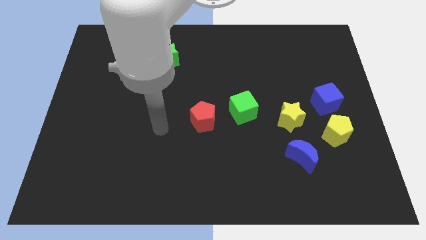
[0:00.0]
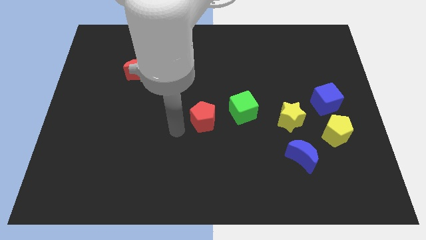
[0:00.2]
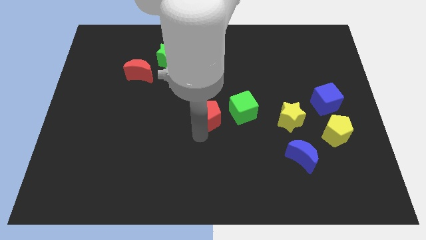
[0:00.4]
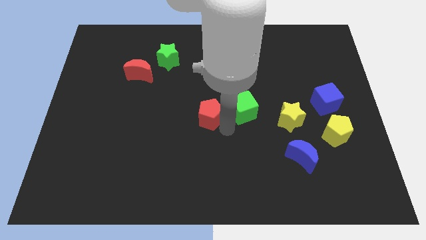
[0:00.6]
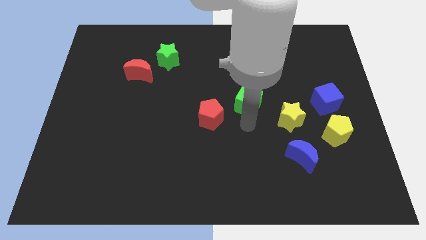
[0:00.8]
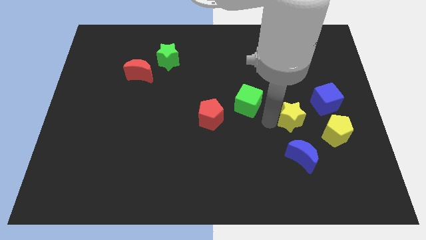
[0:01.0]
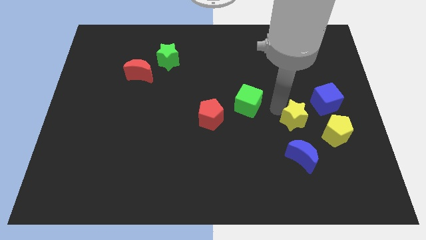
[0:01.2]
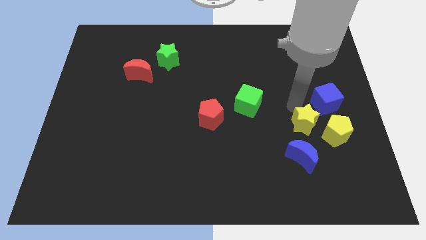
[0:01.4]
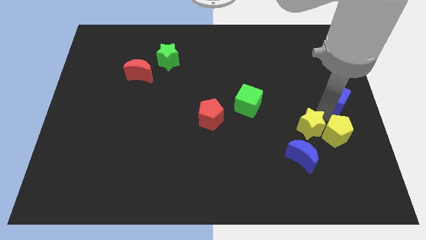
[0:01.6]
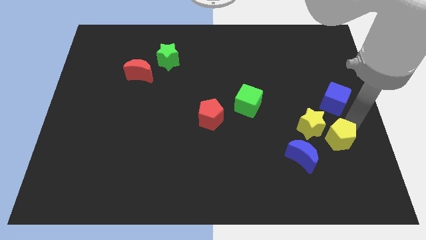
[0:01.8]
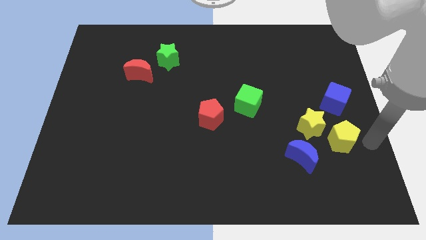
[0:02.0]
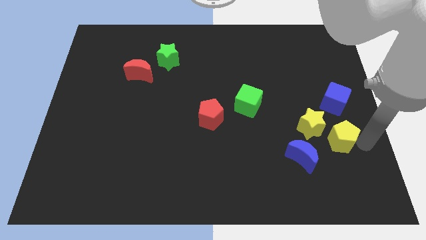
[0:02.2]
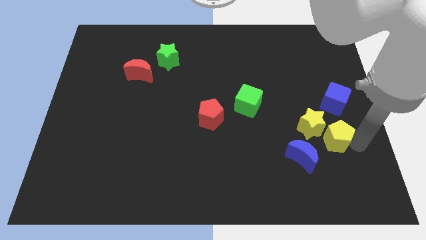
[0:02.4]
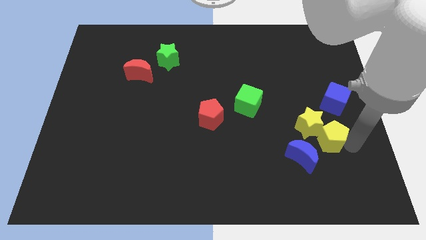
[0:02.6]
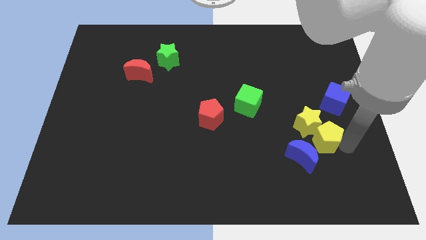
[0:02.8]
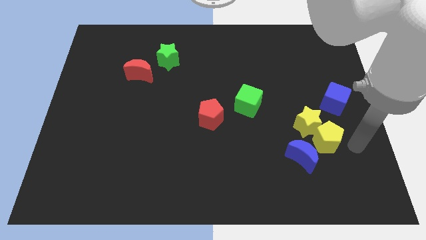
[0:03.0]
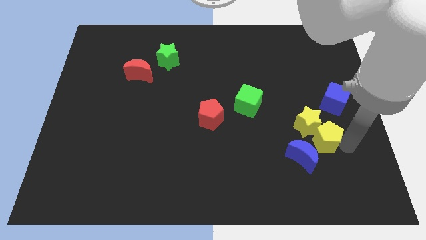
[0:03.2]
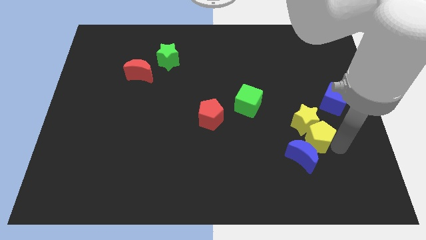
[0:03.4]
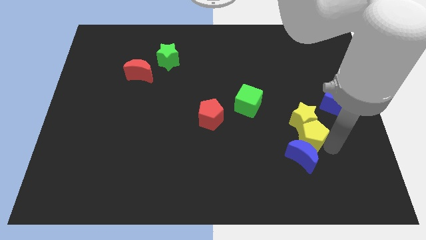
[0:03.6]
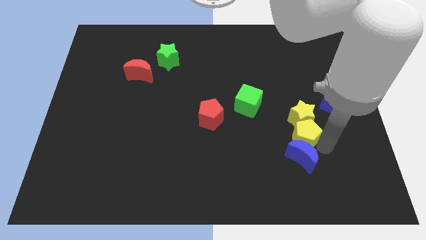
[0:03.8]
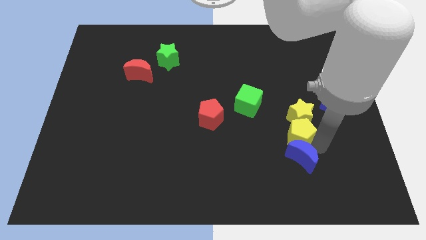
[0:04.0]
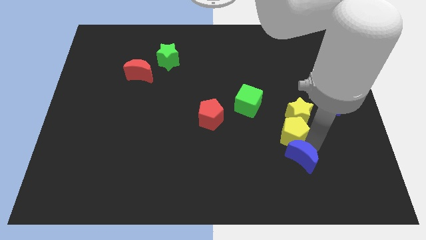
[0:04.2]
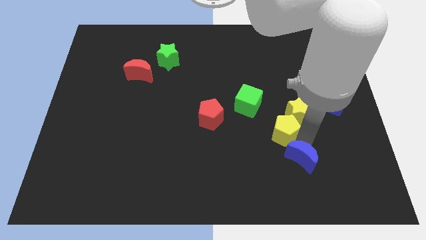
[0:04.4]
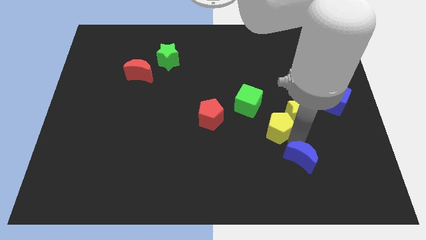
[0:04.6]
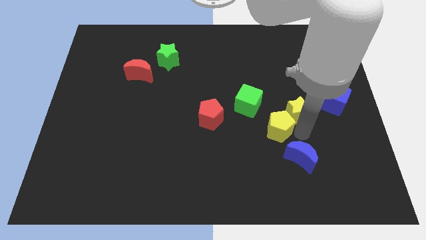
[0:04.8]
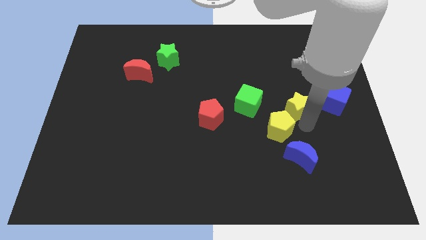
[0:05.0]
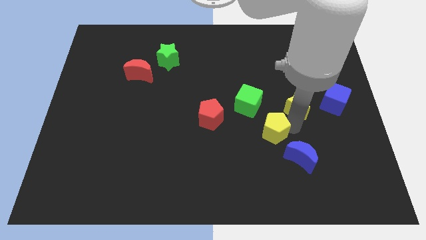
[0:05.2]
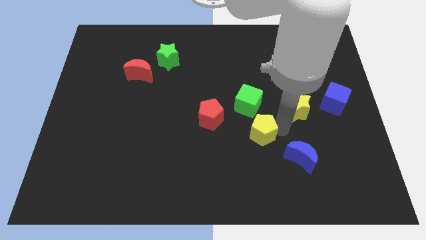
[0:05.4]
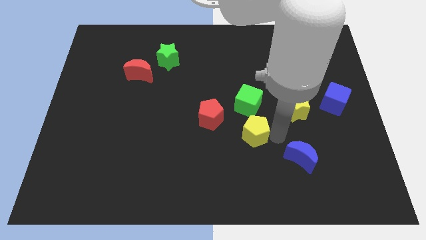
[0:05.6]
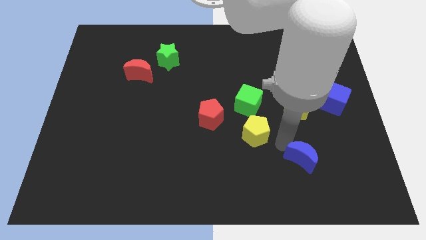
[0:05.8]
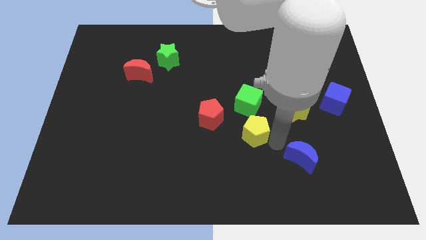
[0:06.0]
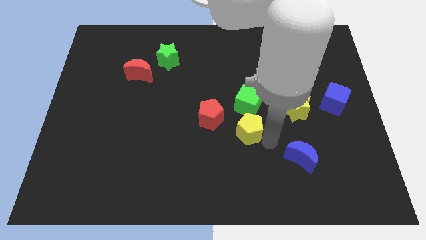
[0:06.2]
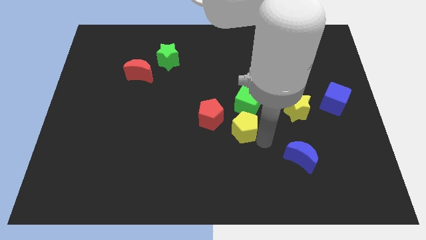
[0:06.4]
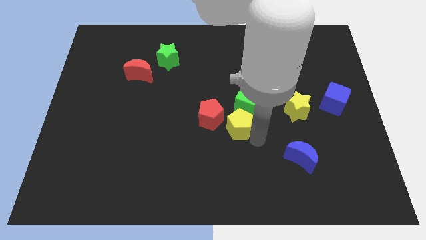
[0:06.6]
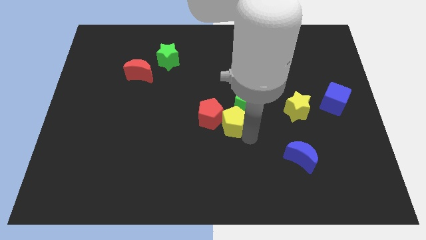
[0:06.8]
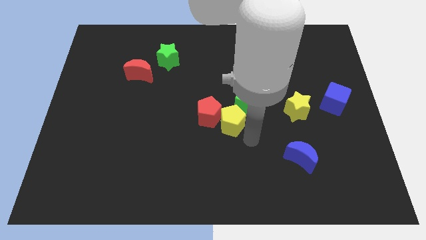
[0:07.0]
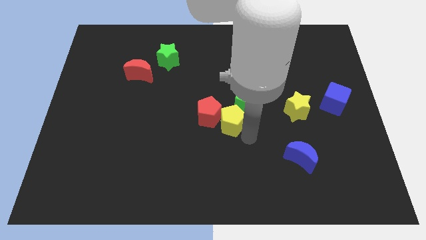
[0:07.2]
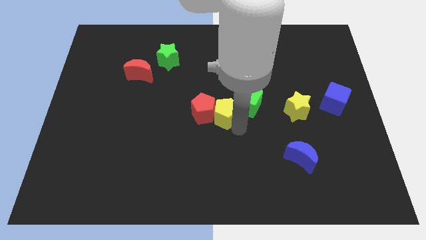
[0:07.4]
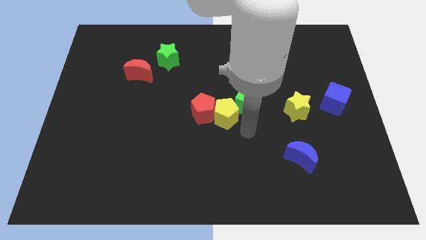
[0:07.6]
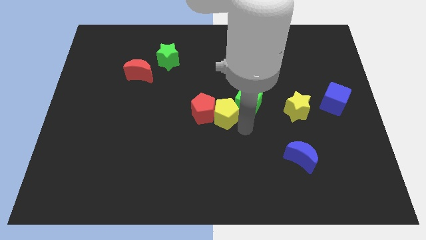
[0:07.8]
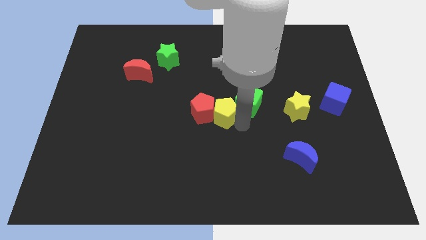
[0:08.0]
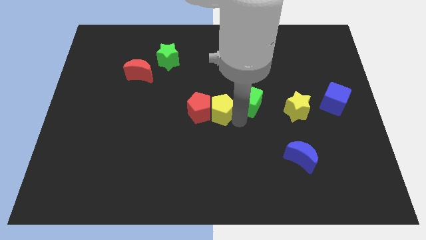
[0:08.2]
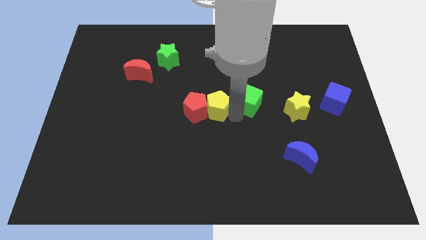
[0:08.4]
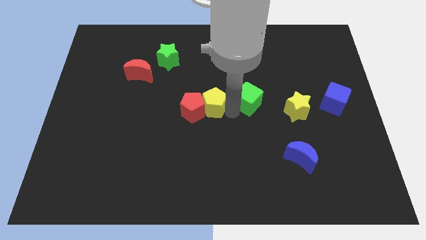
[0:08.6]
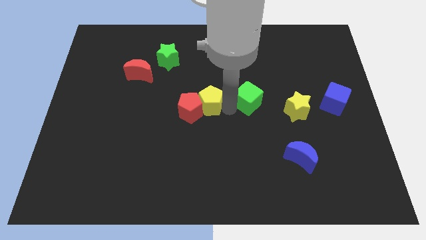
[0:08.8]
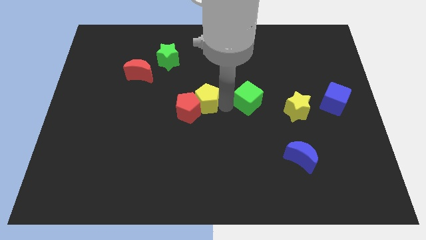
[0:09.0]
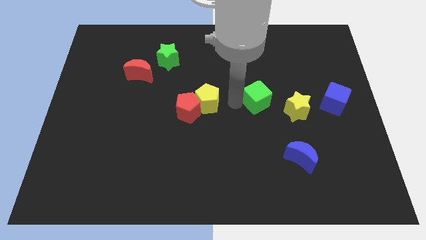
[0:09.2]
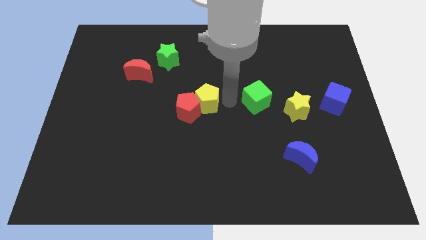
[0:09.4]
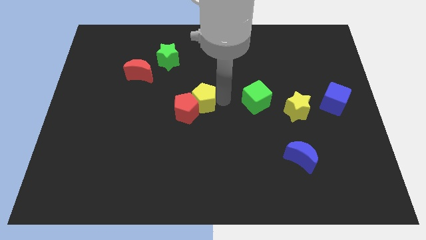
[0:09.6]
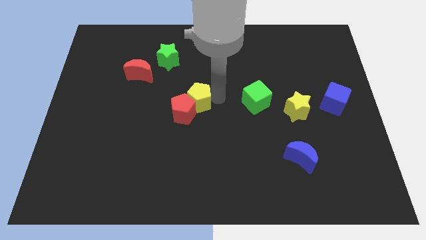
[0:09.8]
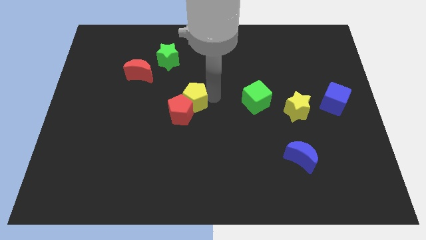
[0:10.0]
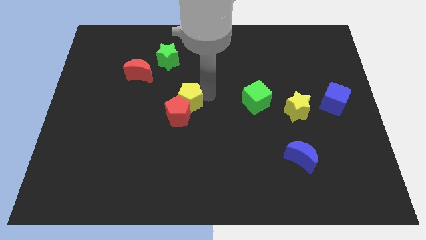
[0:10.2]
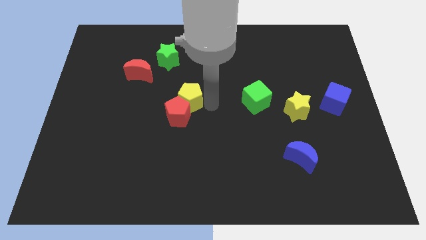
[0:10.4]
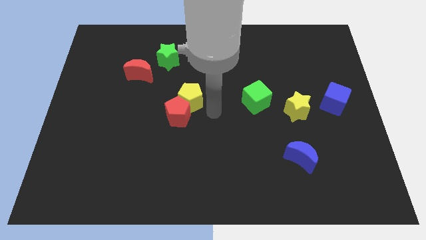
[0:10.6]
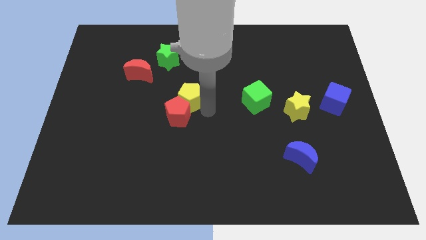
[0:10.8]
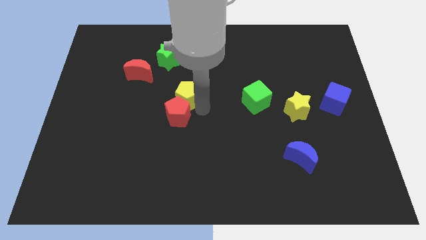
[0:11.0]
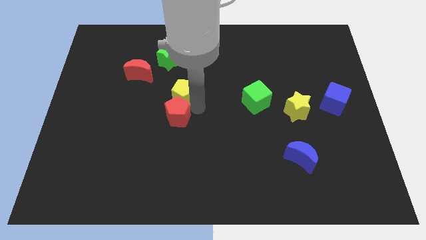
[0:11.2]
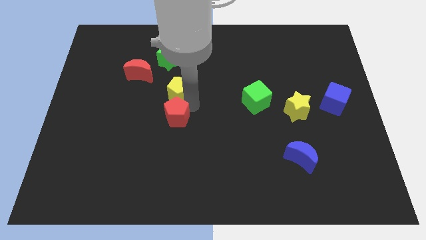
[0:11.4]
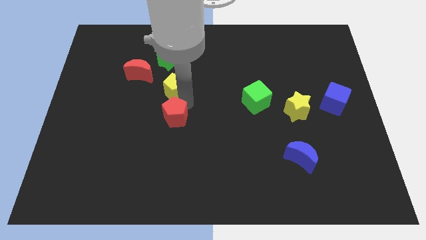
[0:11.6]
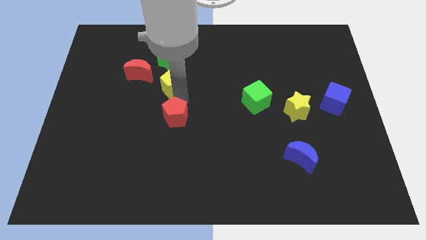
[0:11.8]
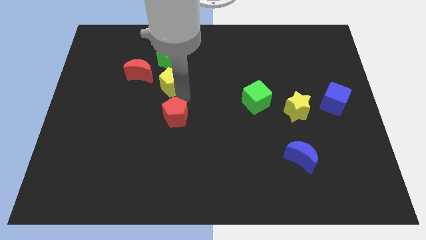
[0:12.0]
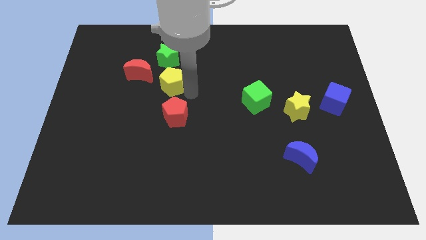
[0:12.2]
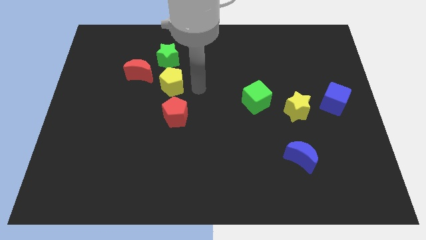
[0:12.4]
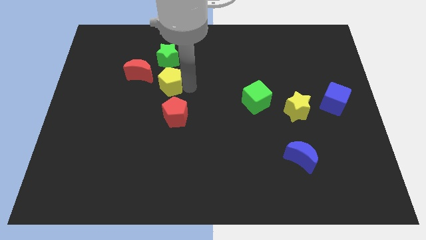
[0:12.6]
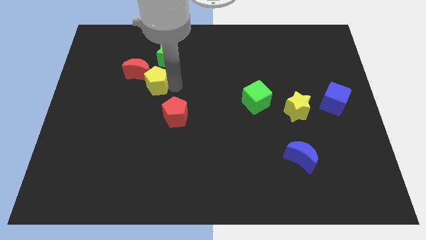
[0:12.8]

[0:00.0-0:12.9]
slide the yellow pentagon close to the red moon

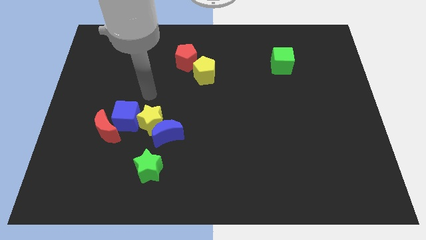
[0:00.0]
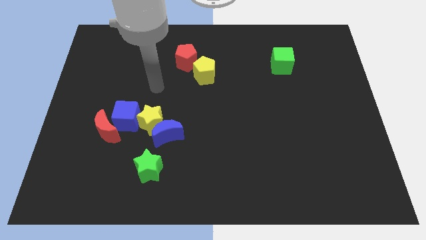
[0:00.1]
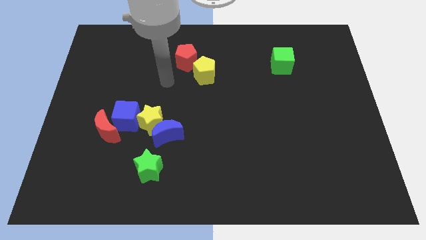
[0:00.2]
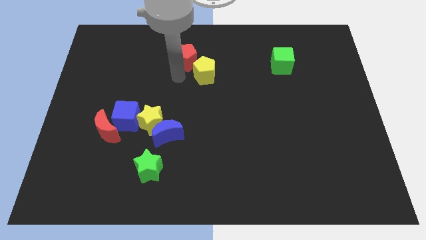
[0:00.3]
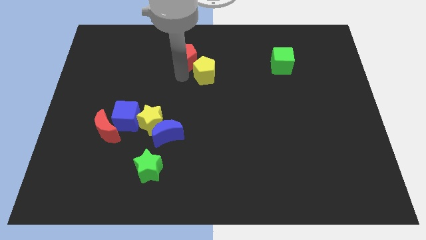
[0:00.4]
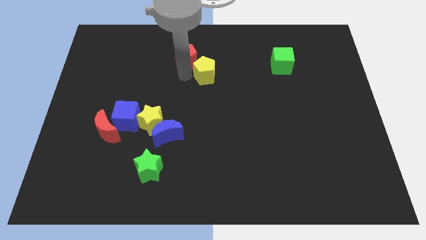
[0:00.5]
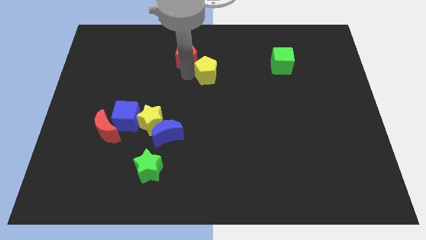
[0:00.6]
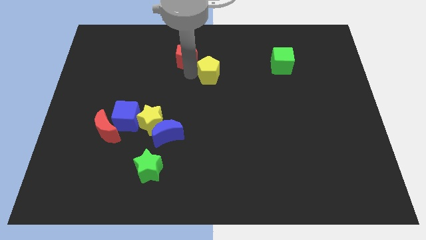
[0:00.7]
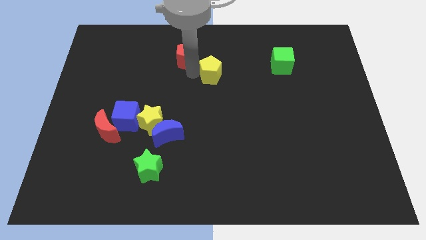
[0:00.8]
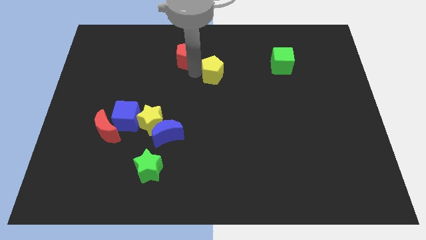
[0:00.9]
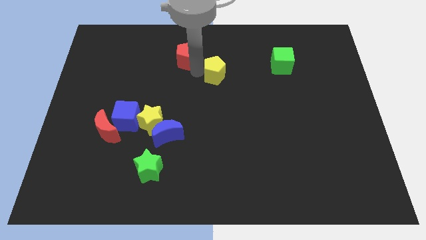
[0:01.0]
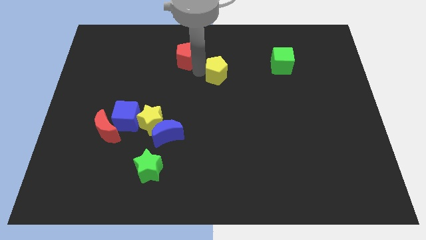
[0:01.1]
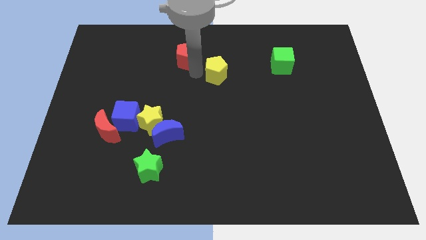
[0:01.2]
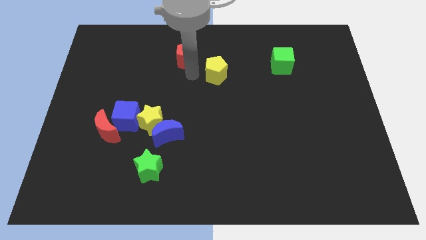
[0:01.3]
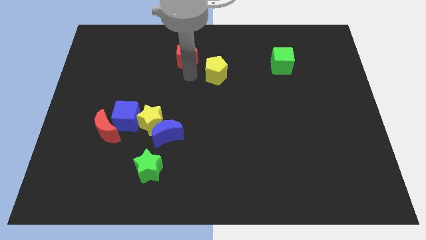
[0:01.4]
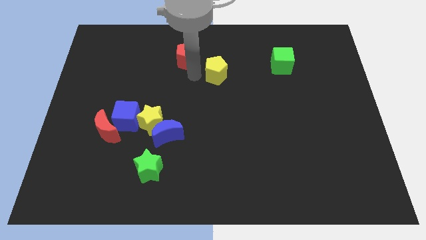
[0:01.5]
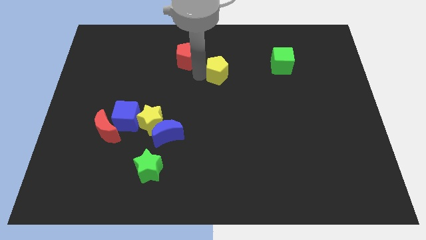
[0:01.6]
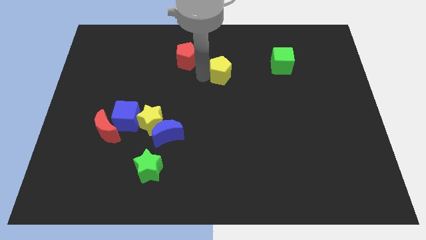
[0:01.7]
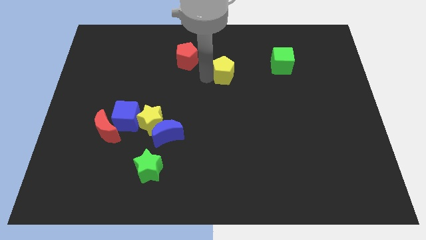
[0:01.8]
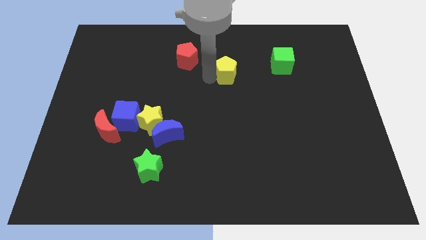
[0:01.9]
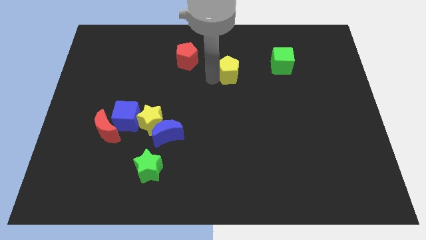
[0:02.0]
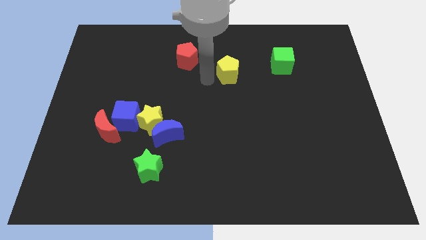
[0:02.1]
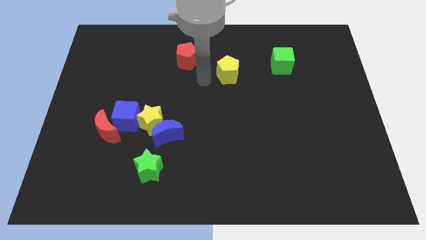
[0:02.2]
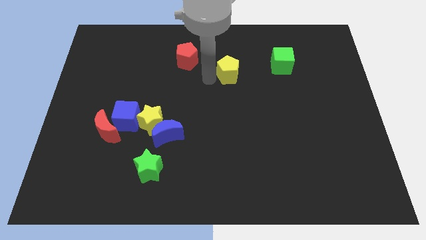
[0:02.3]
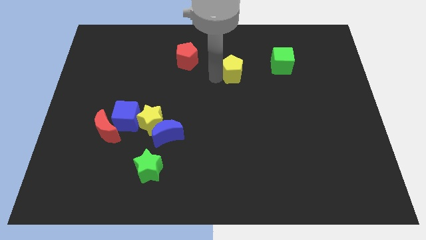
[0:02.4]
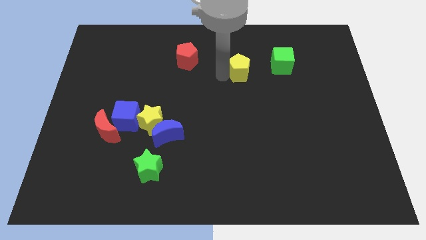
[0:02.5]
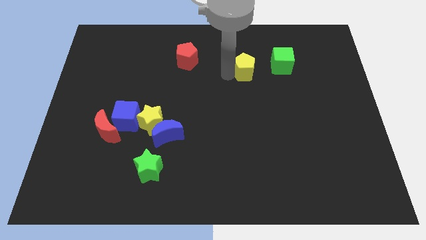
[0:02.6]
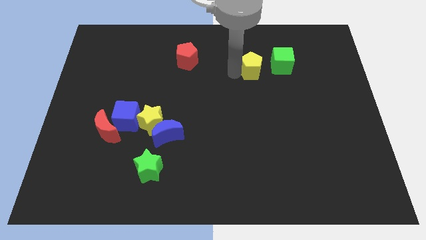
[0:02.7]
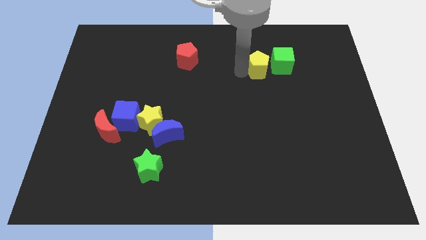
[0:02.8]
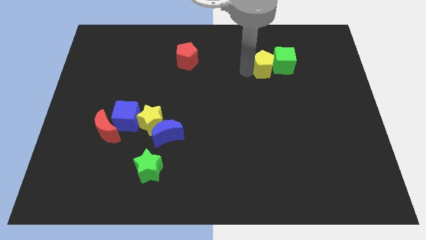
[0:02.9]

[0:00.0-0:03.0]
slide the yellow pentagon close to the green cube
